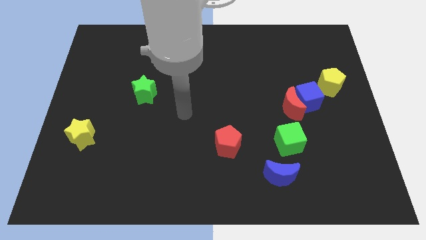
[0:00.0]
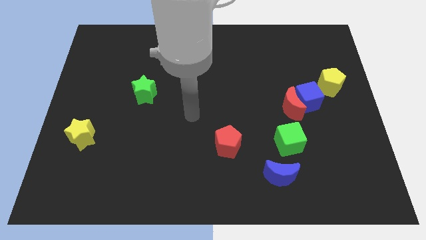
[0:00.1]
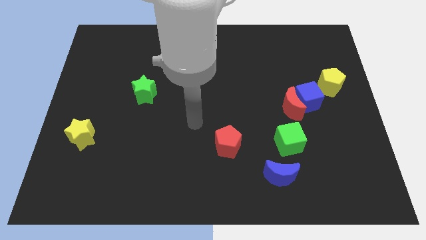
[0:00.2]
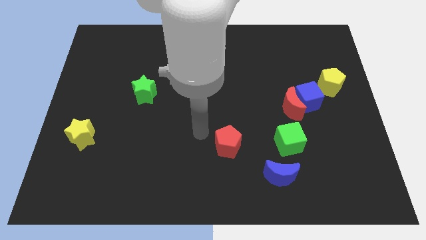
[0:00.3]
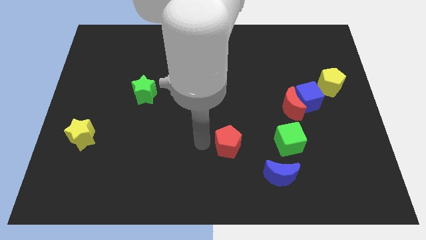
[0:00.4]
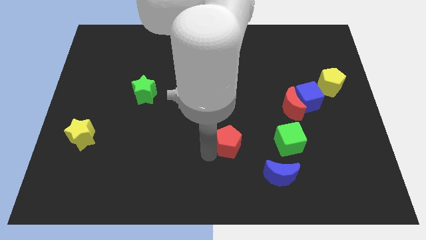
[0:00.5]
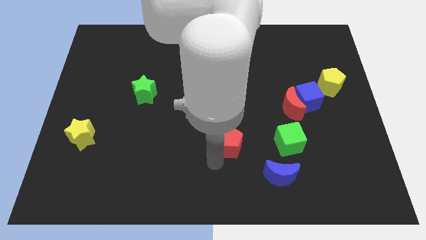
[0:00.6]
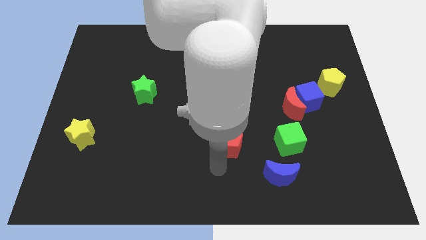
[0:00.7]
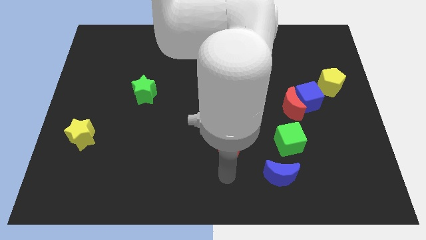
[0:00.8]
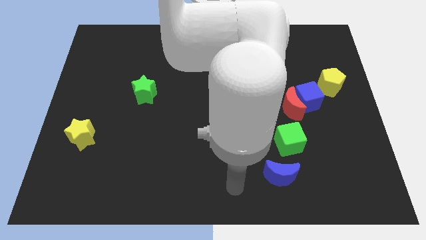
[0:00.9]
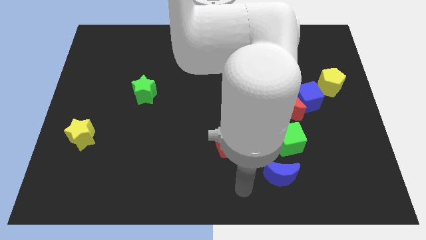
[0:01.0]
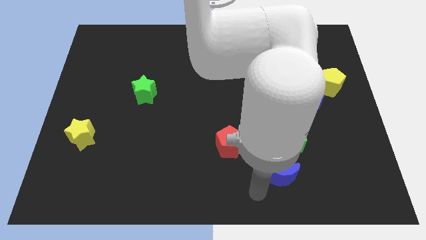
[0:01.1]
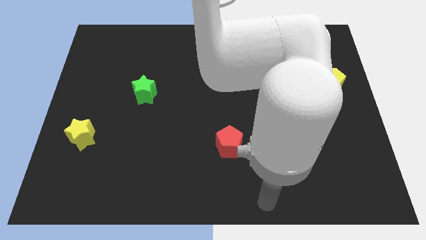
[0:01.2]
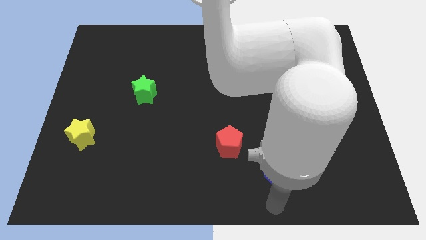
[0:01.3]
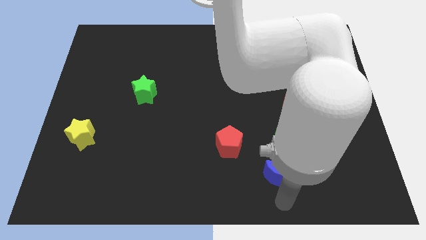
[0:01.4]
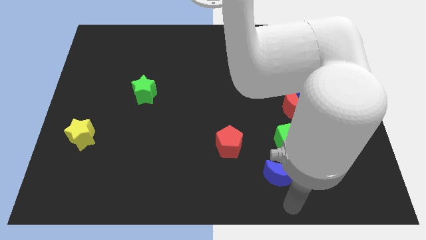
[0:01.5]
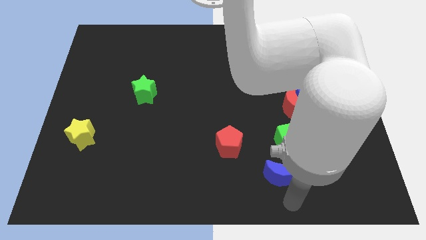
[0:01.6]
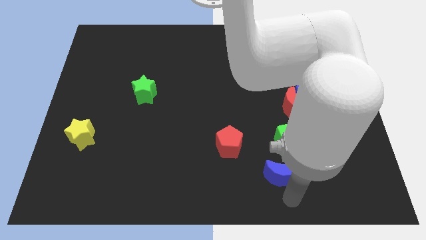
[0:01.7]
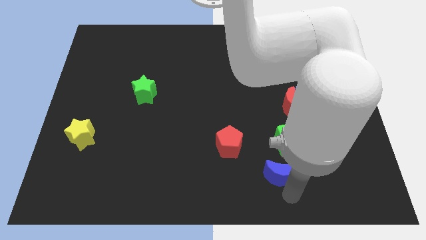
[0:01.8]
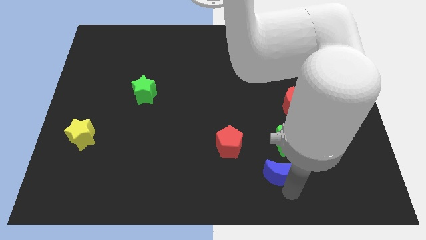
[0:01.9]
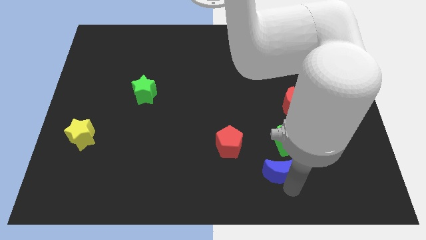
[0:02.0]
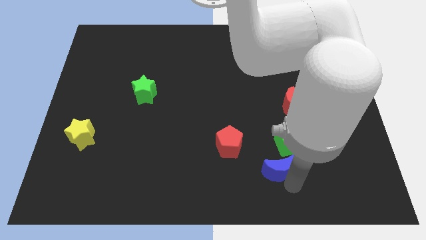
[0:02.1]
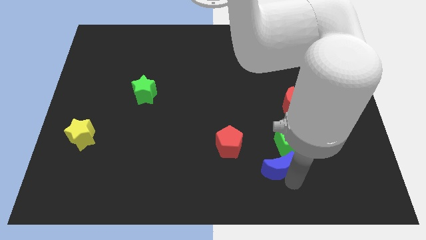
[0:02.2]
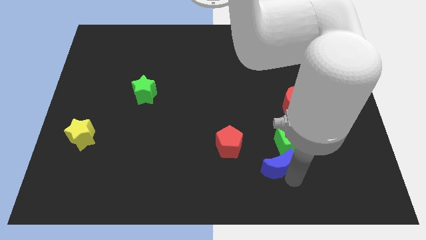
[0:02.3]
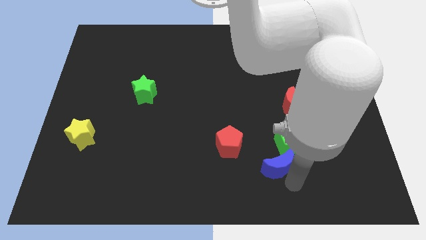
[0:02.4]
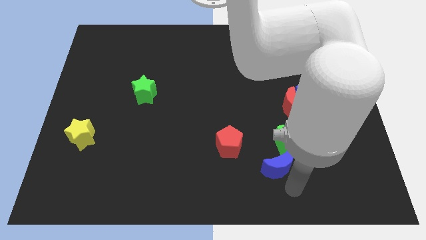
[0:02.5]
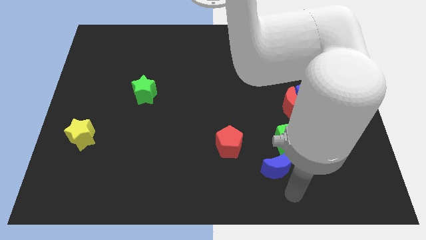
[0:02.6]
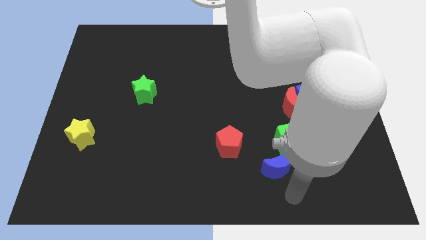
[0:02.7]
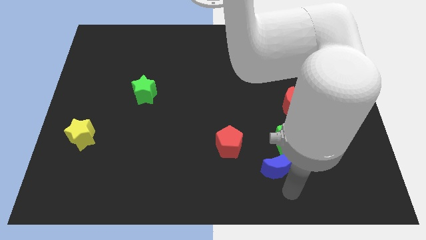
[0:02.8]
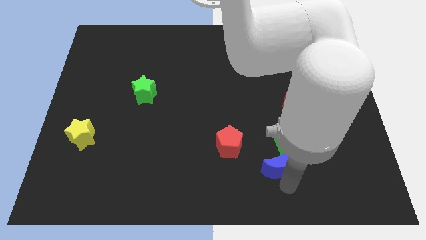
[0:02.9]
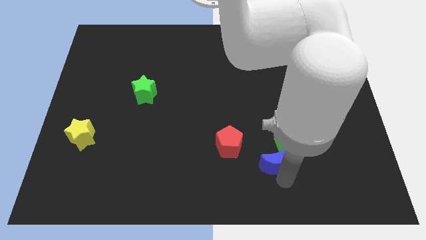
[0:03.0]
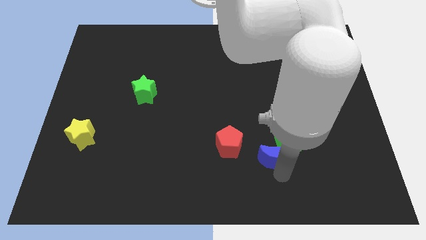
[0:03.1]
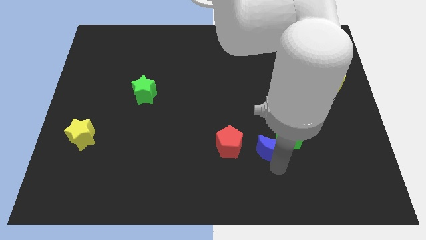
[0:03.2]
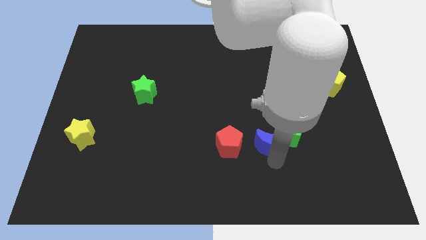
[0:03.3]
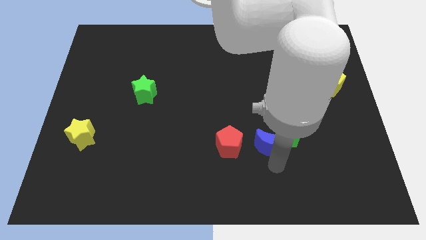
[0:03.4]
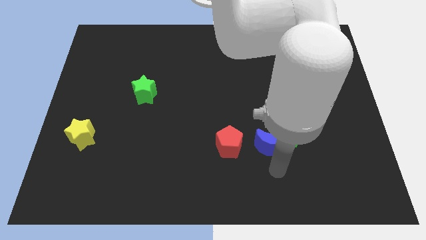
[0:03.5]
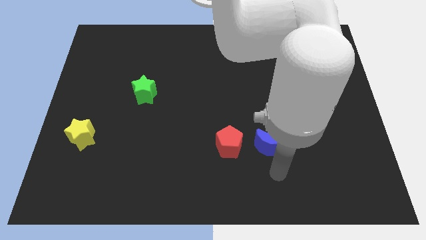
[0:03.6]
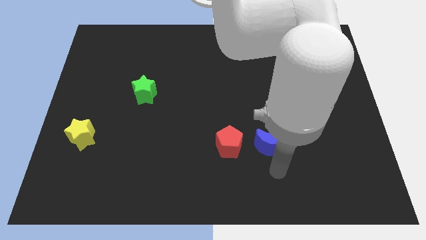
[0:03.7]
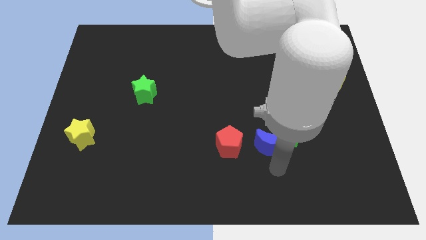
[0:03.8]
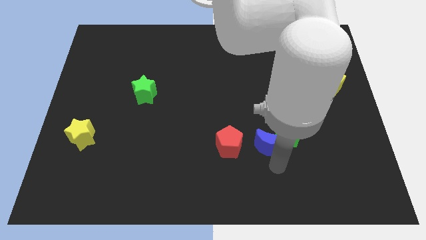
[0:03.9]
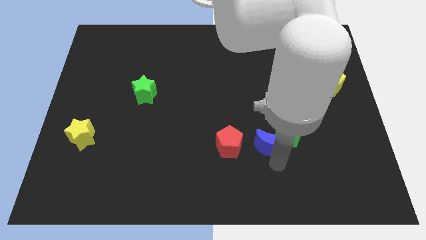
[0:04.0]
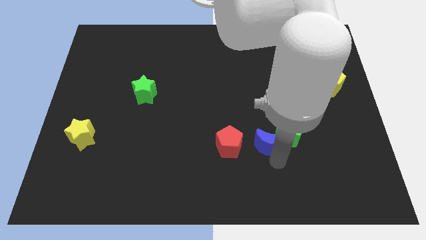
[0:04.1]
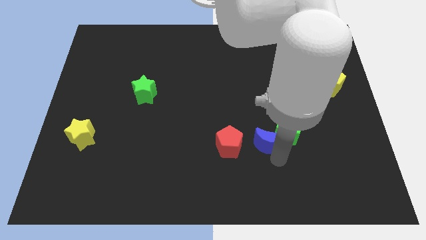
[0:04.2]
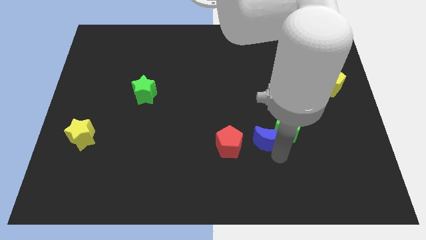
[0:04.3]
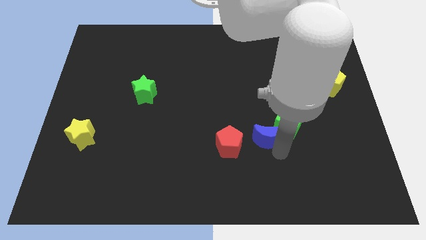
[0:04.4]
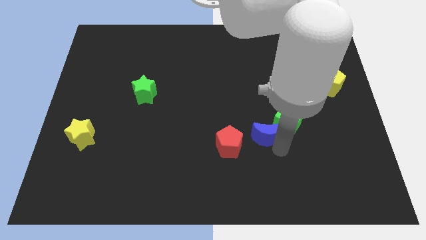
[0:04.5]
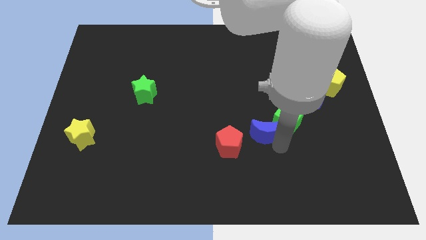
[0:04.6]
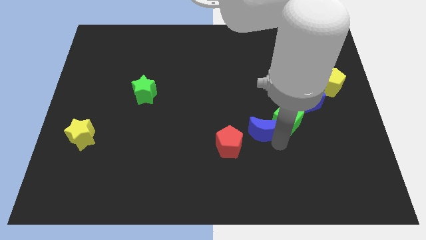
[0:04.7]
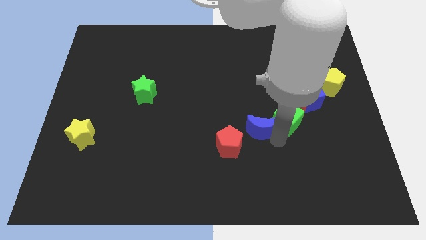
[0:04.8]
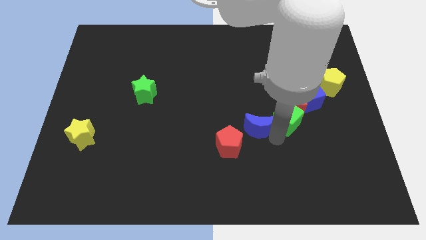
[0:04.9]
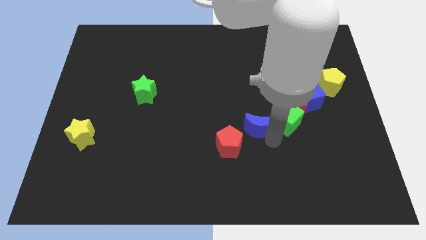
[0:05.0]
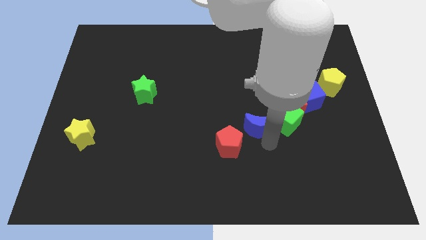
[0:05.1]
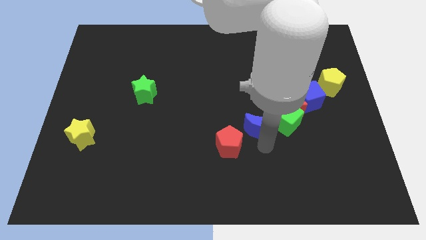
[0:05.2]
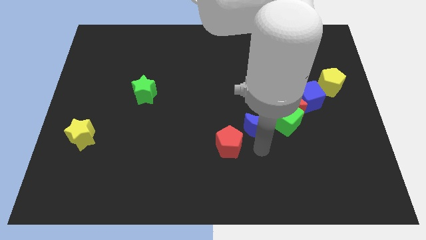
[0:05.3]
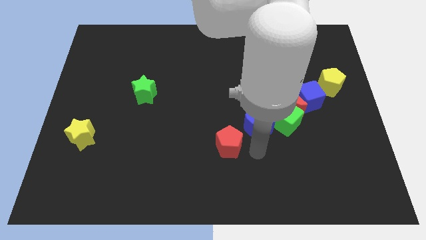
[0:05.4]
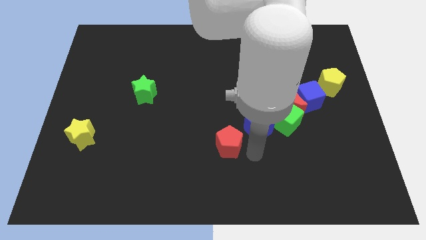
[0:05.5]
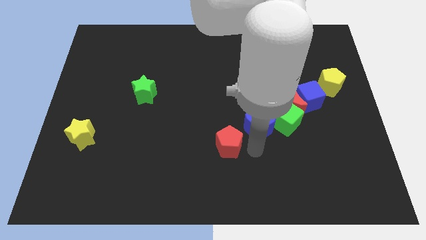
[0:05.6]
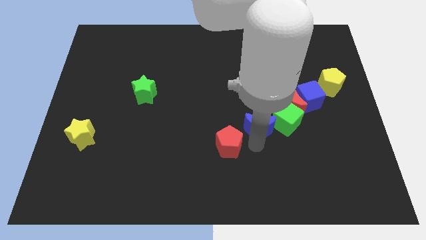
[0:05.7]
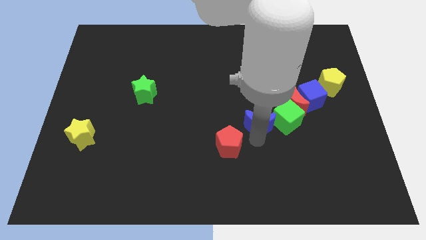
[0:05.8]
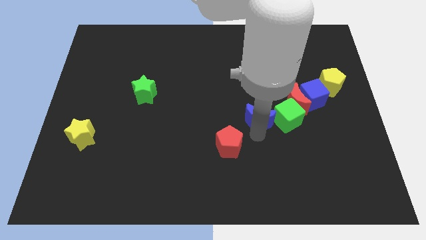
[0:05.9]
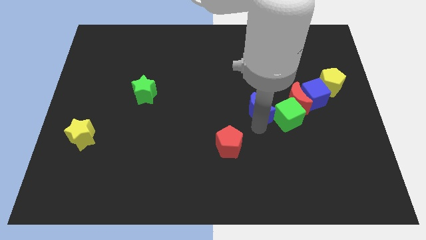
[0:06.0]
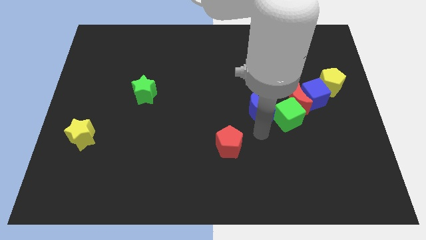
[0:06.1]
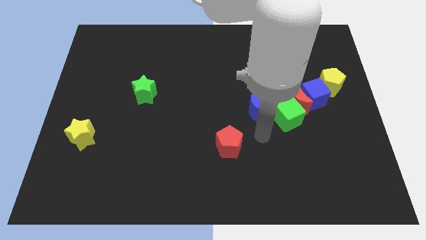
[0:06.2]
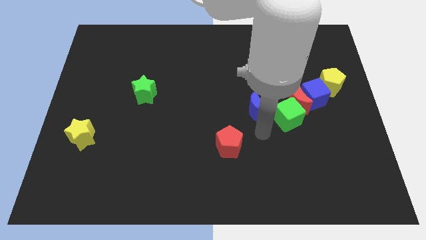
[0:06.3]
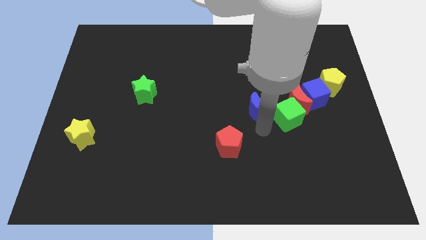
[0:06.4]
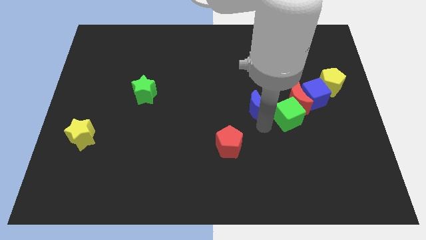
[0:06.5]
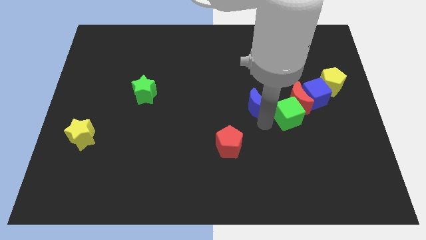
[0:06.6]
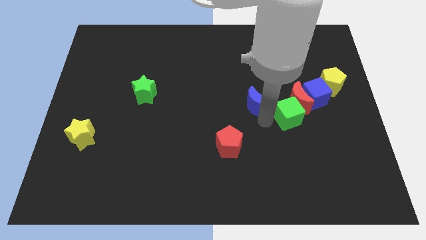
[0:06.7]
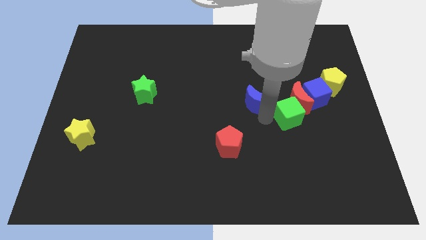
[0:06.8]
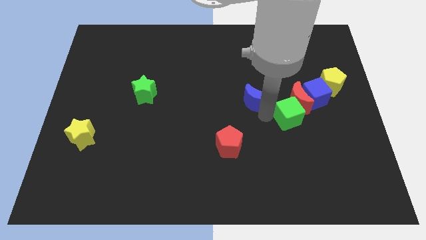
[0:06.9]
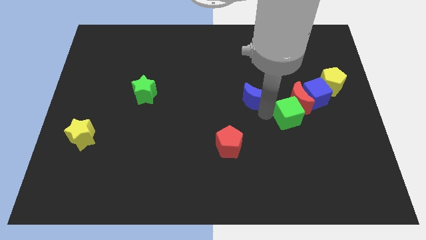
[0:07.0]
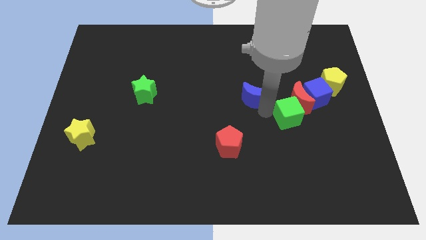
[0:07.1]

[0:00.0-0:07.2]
move the blue moon up

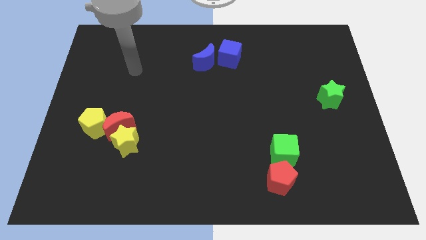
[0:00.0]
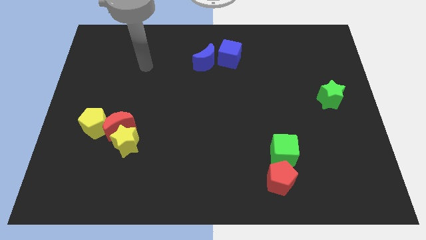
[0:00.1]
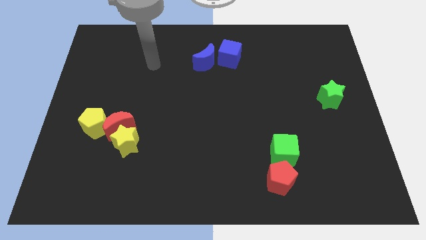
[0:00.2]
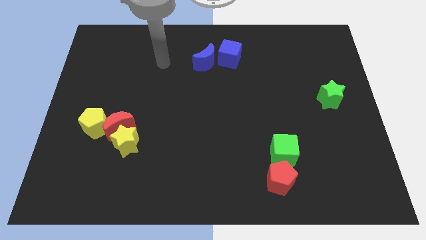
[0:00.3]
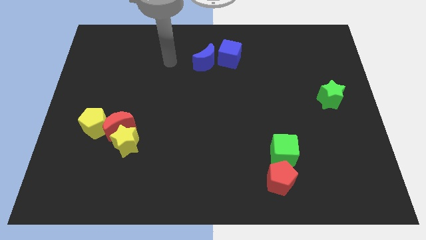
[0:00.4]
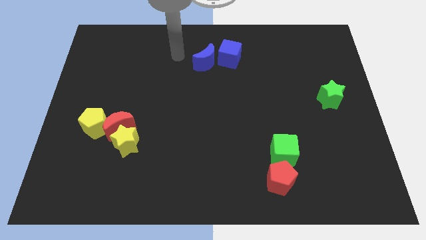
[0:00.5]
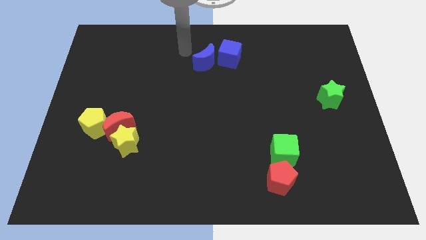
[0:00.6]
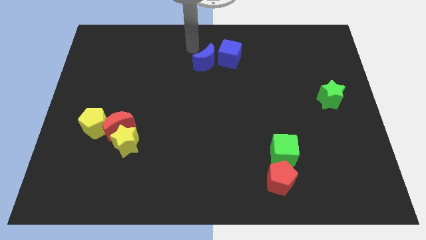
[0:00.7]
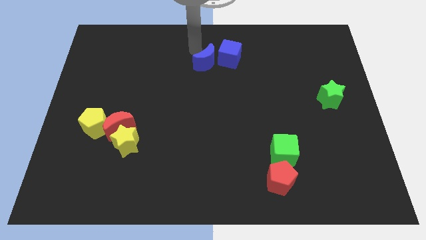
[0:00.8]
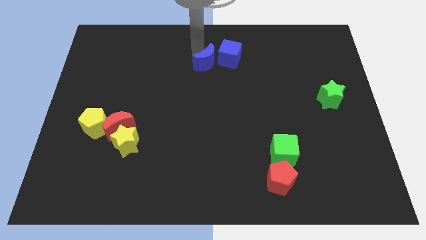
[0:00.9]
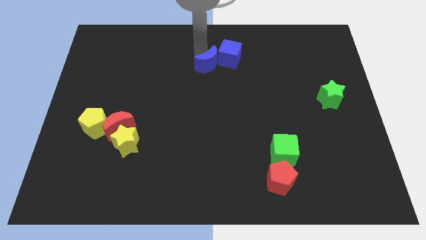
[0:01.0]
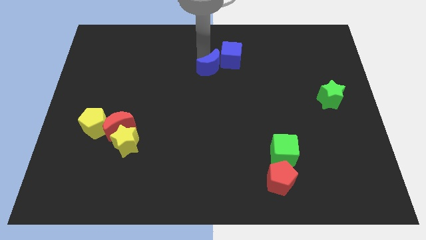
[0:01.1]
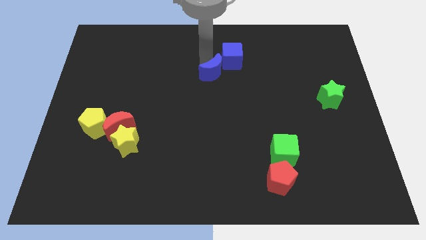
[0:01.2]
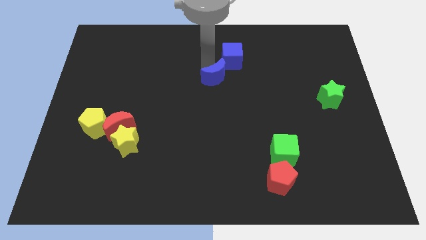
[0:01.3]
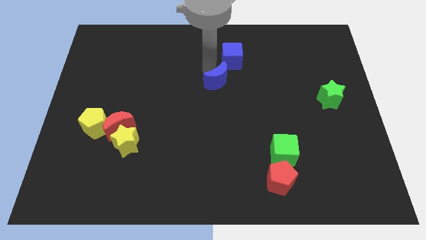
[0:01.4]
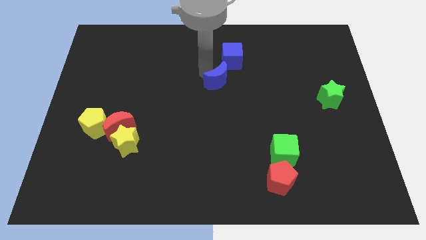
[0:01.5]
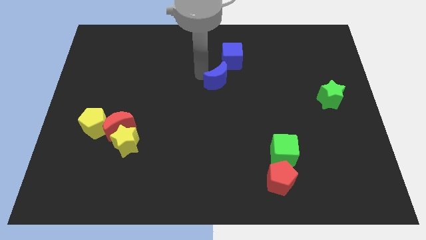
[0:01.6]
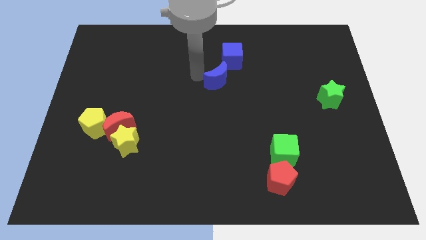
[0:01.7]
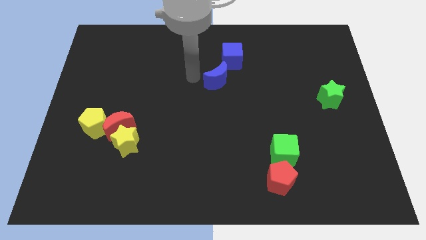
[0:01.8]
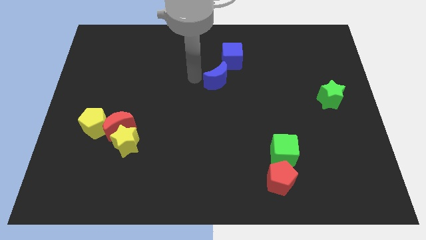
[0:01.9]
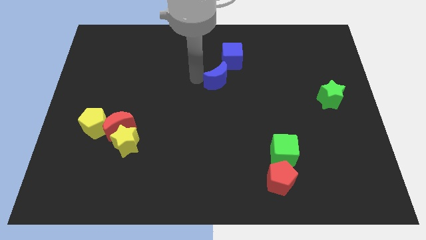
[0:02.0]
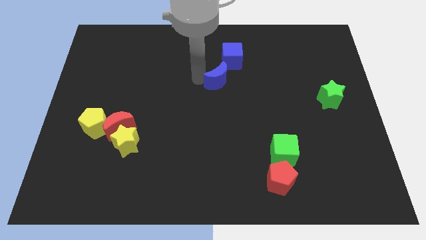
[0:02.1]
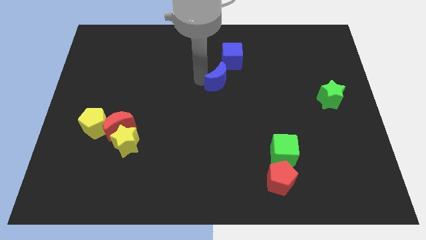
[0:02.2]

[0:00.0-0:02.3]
move the blue moon down and right a little bit
